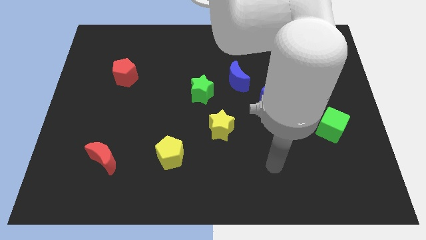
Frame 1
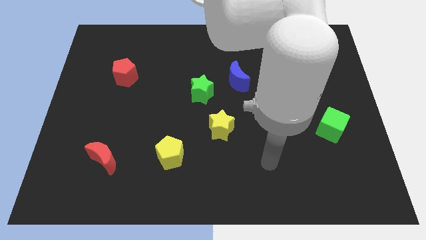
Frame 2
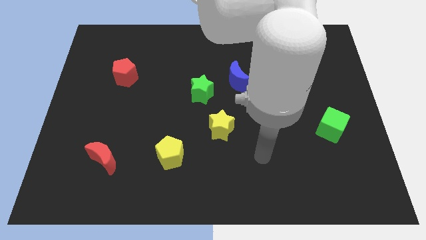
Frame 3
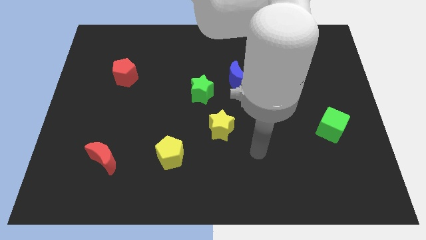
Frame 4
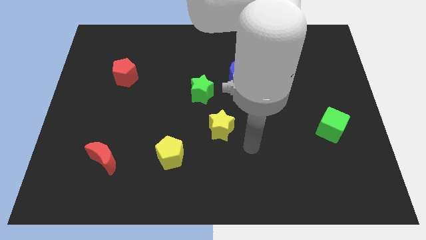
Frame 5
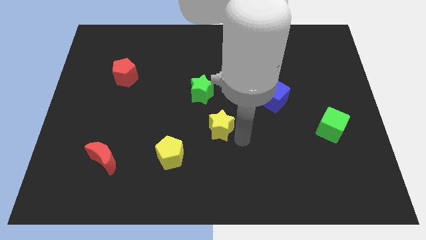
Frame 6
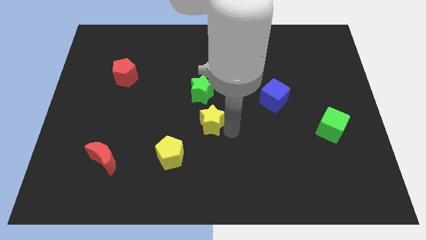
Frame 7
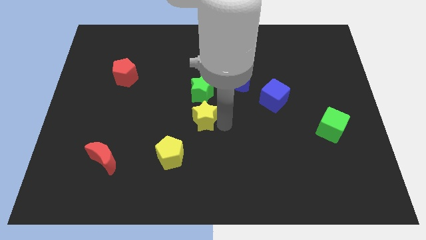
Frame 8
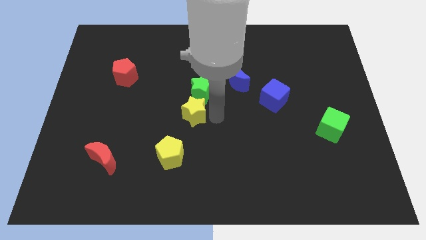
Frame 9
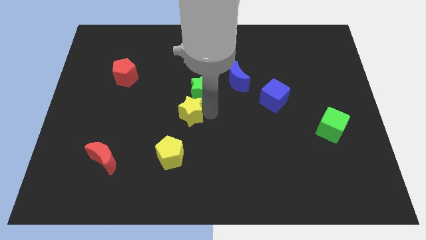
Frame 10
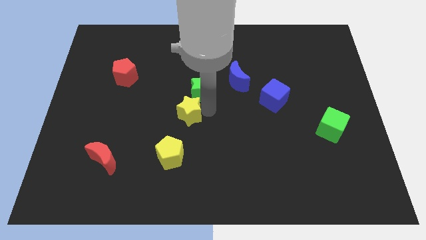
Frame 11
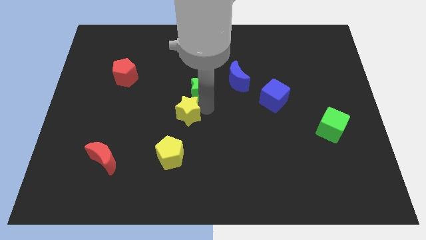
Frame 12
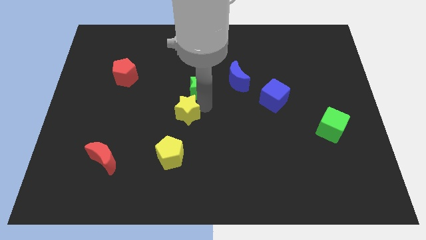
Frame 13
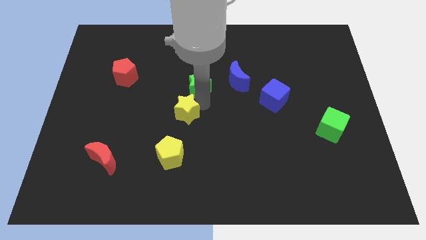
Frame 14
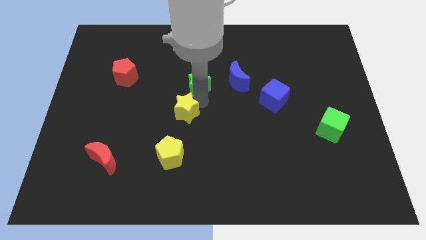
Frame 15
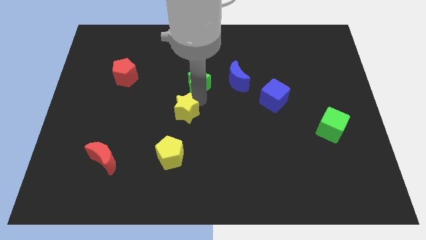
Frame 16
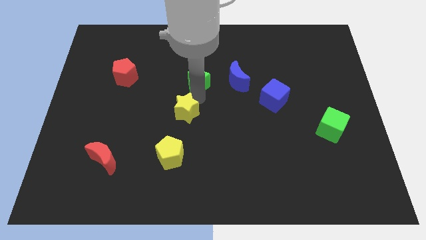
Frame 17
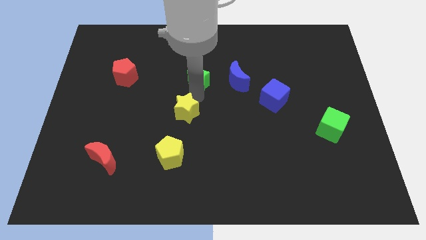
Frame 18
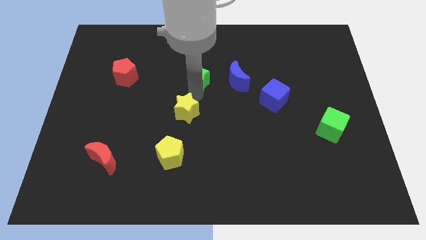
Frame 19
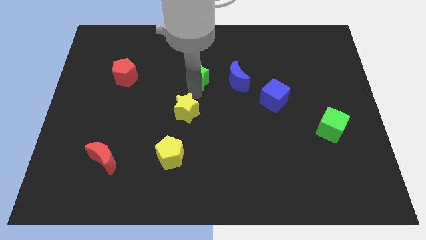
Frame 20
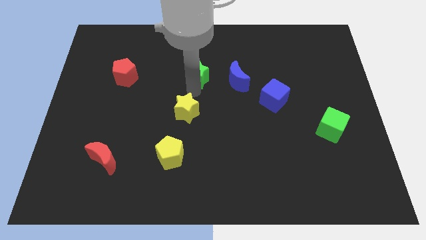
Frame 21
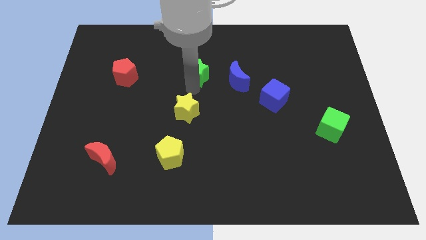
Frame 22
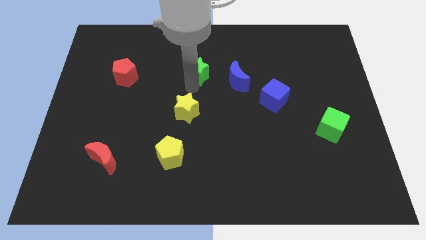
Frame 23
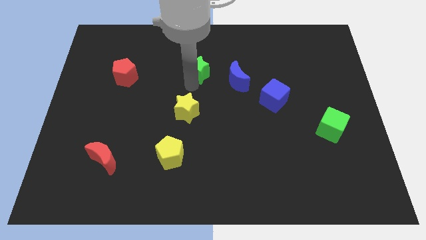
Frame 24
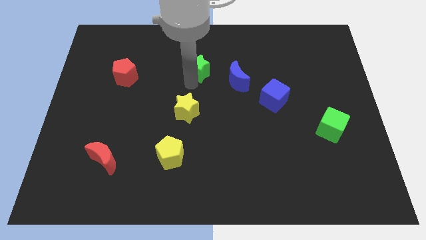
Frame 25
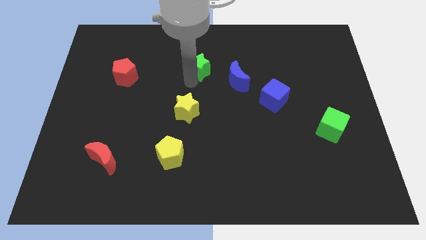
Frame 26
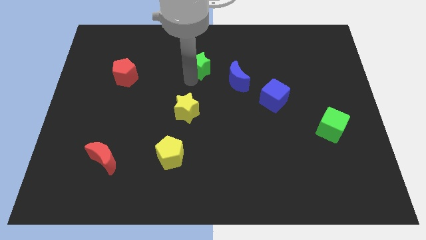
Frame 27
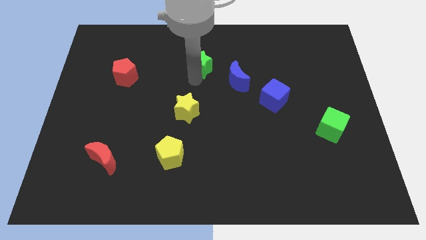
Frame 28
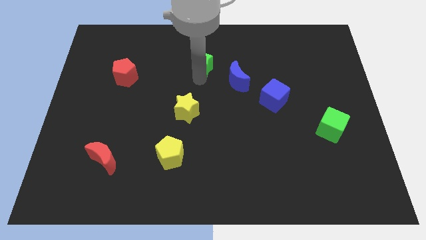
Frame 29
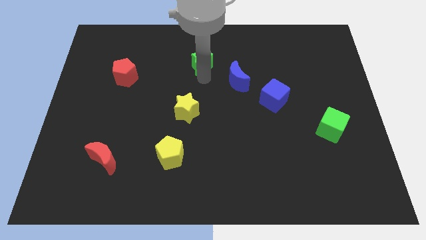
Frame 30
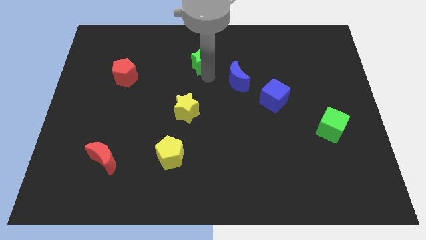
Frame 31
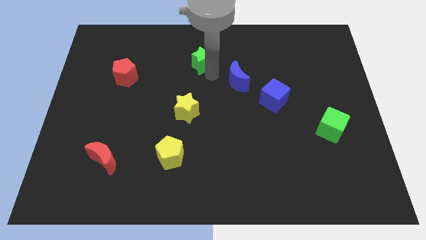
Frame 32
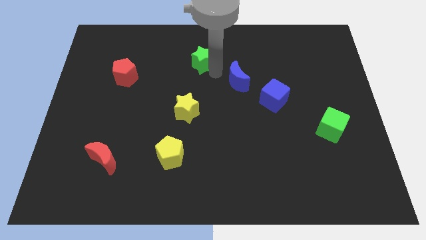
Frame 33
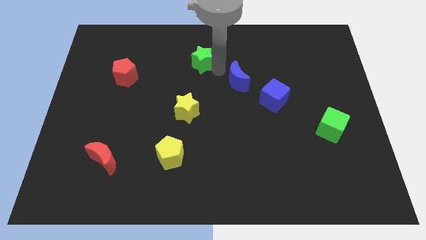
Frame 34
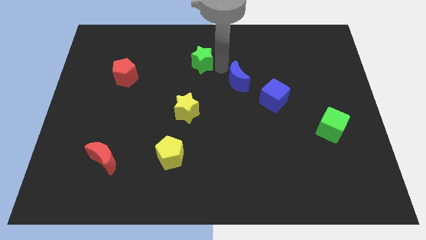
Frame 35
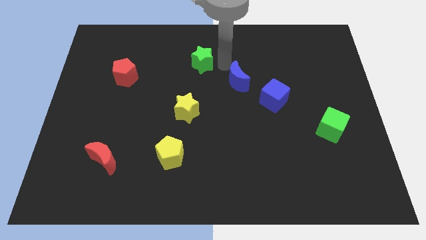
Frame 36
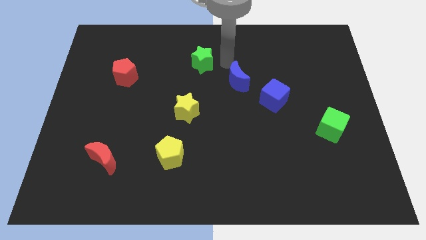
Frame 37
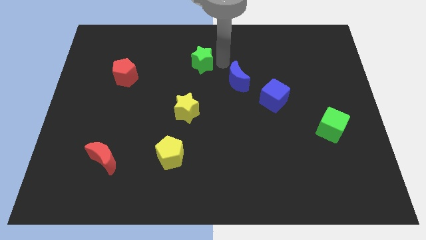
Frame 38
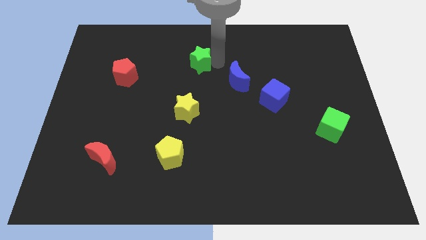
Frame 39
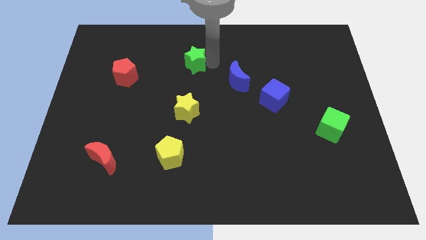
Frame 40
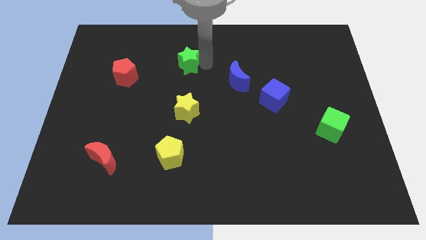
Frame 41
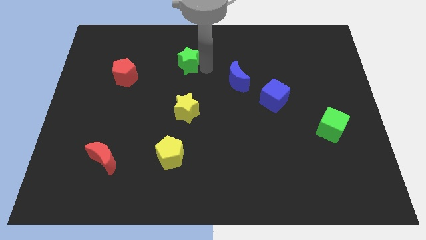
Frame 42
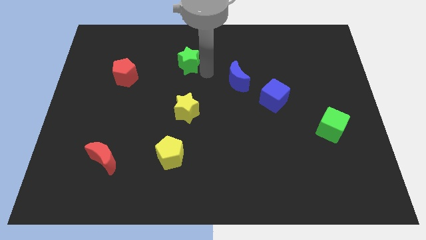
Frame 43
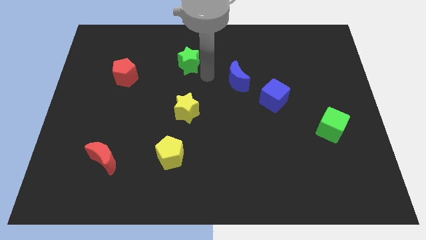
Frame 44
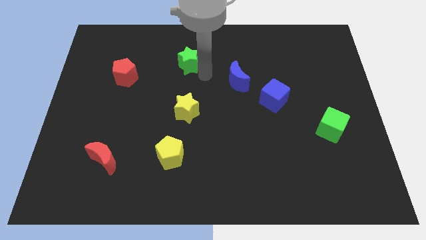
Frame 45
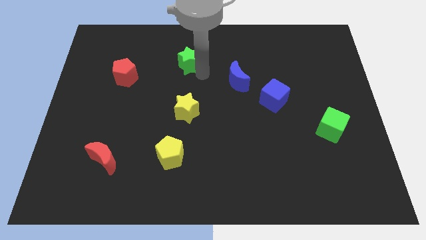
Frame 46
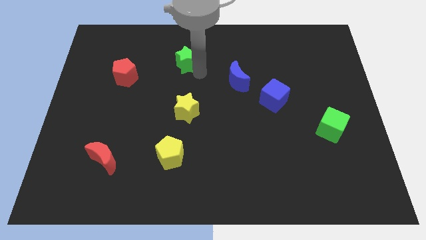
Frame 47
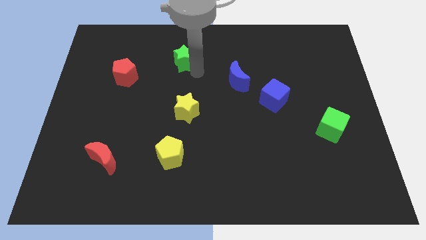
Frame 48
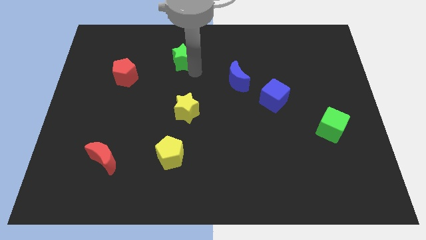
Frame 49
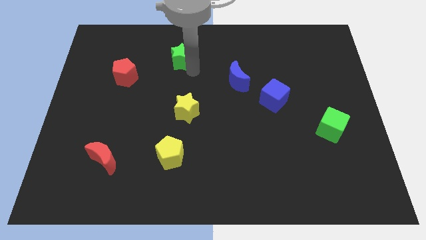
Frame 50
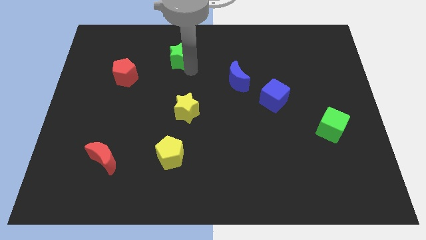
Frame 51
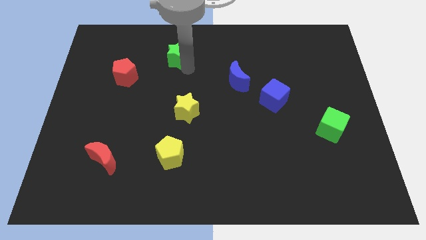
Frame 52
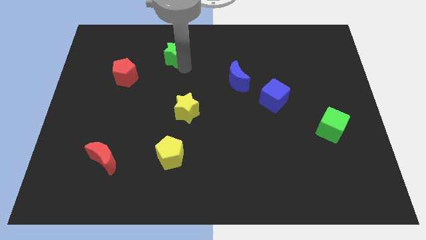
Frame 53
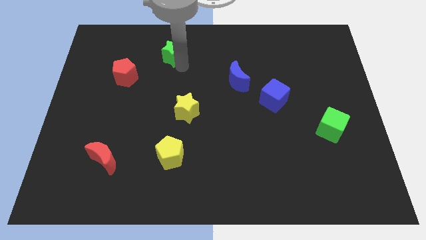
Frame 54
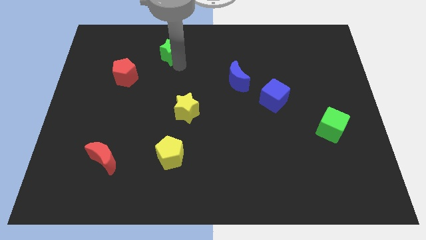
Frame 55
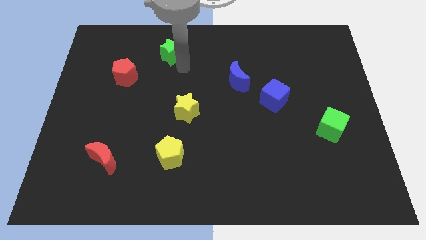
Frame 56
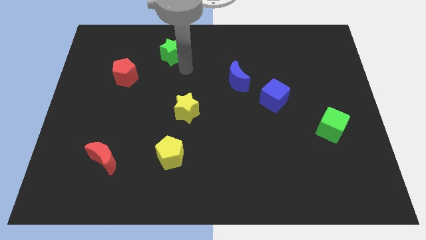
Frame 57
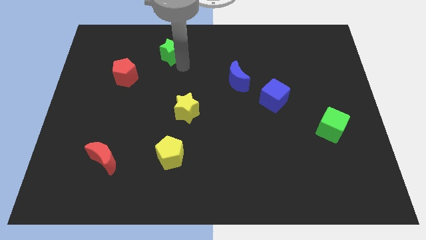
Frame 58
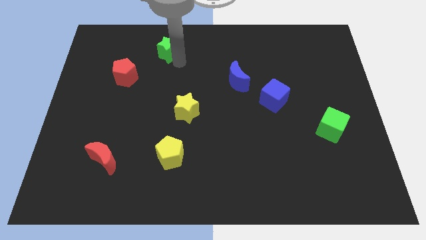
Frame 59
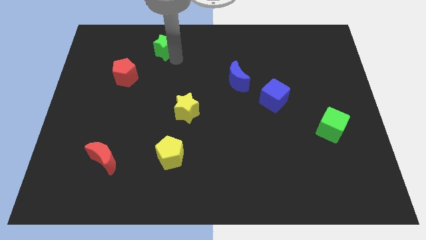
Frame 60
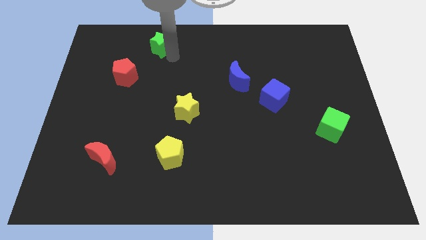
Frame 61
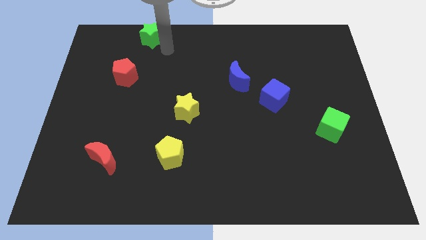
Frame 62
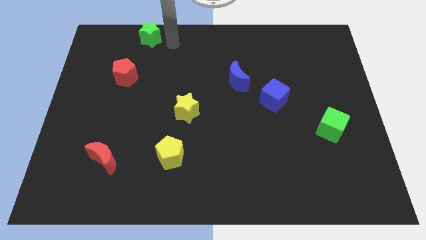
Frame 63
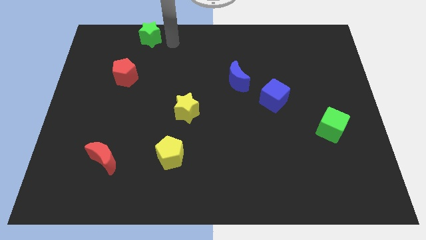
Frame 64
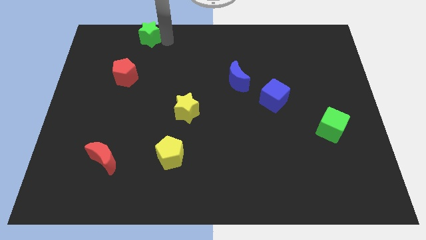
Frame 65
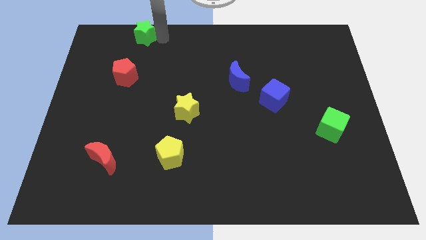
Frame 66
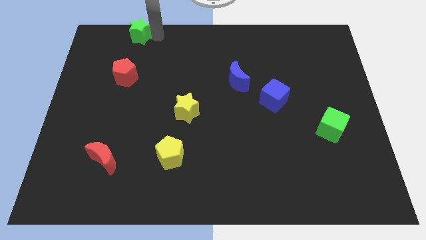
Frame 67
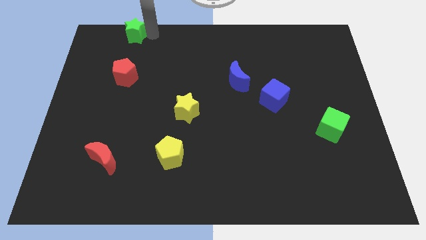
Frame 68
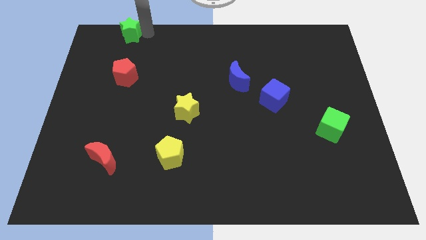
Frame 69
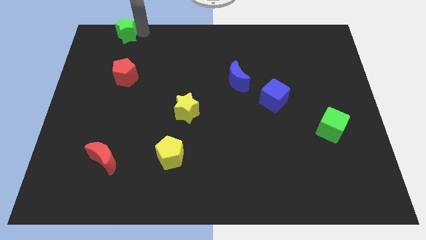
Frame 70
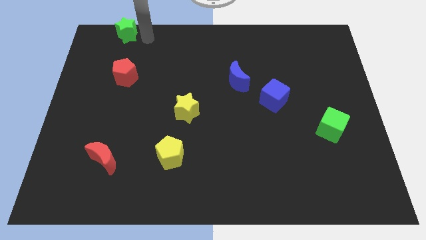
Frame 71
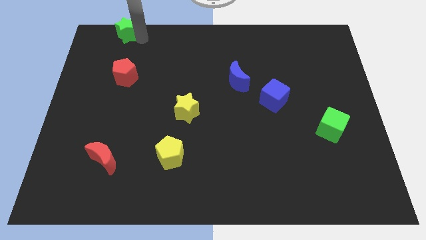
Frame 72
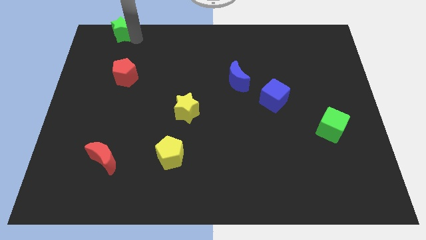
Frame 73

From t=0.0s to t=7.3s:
push the green star to the upper left corner

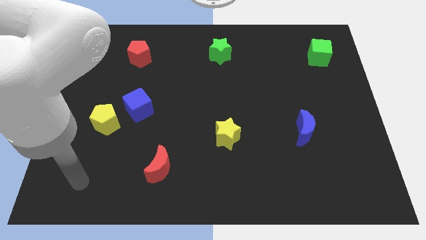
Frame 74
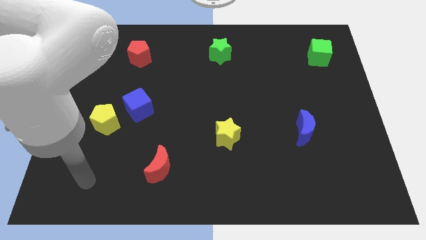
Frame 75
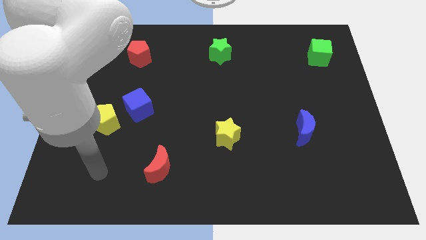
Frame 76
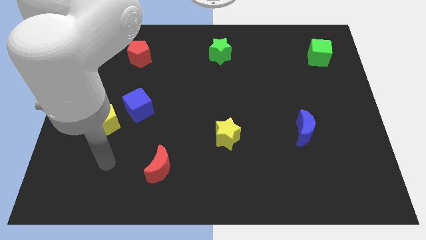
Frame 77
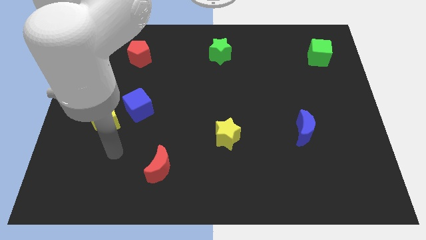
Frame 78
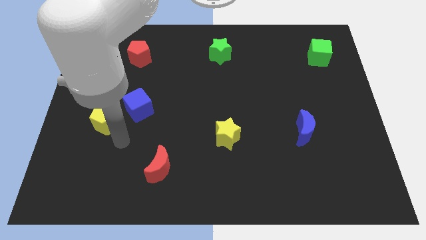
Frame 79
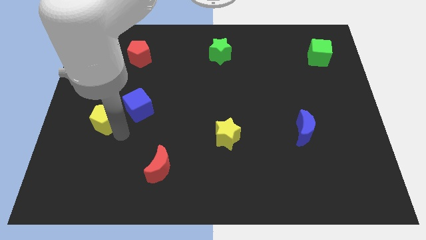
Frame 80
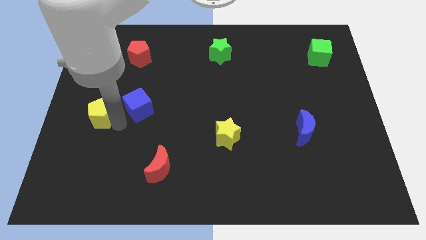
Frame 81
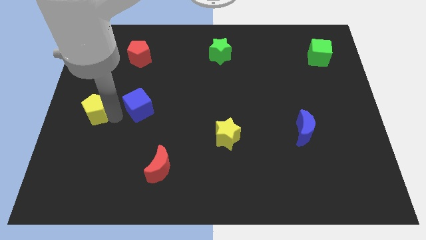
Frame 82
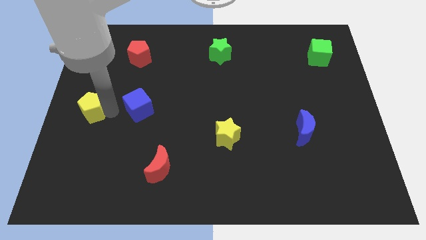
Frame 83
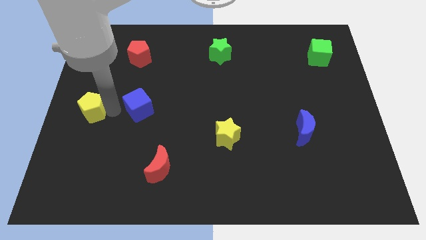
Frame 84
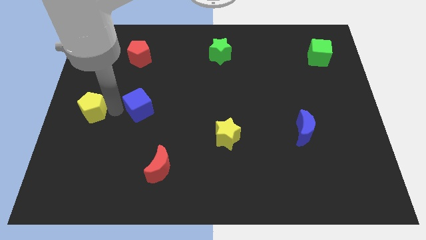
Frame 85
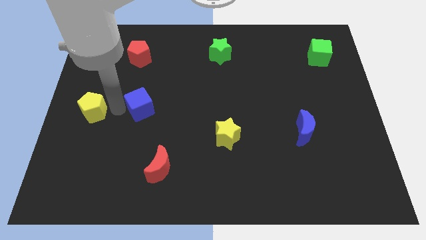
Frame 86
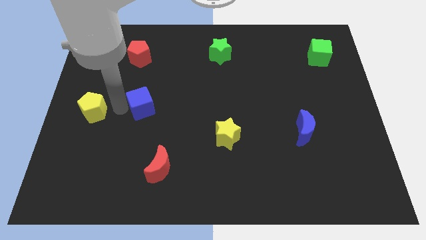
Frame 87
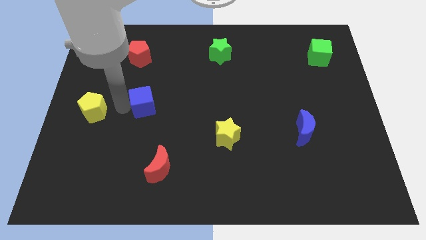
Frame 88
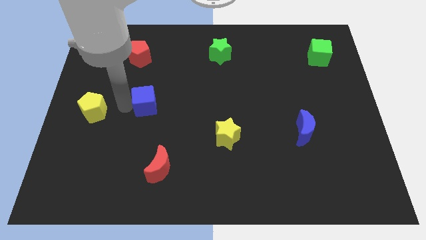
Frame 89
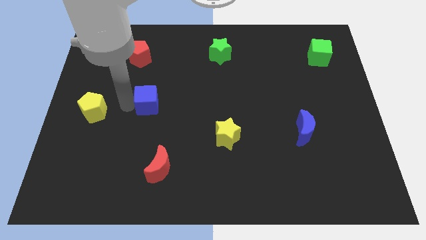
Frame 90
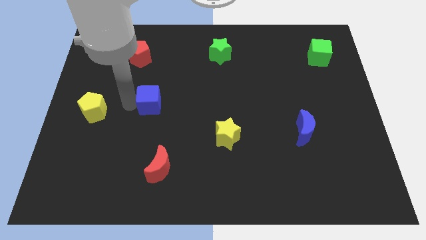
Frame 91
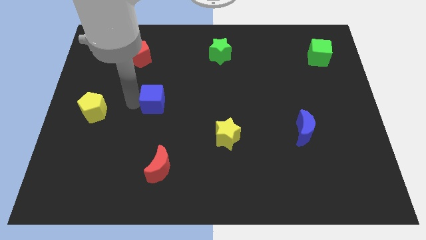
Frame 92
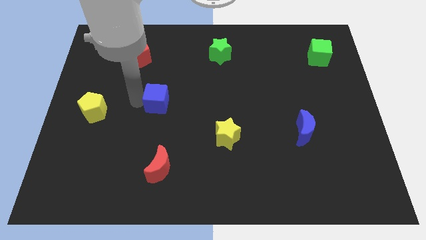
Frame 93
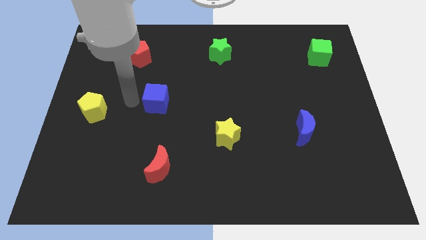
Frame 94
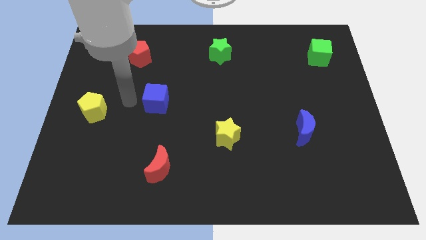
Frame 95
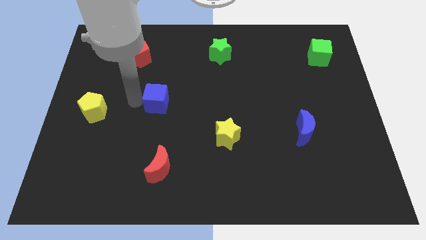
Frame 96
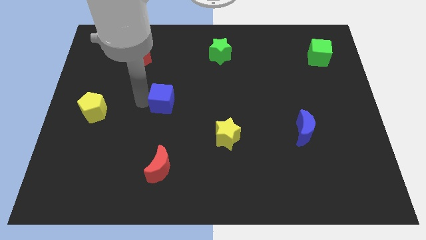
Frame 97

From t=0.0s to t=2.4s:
slide the blue cube to the center
